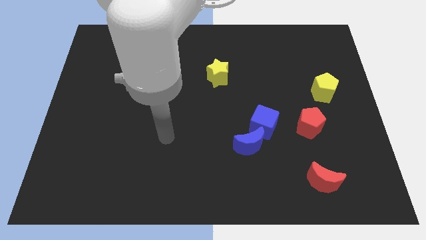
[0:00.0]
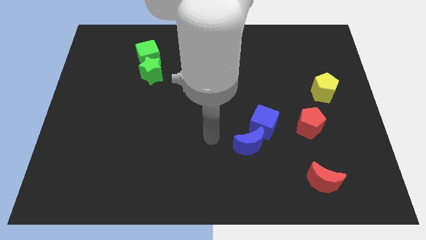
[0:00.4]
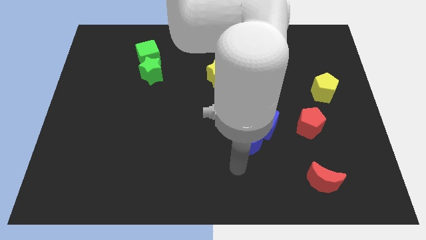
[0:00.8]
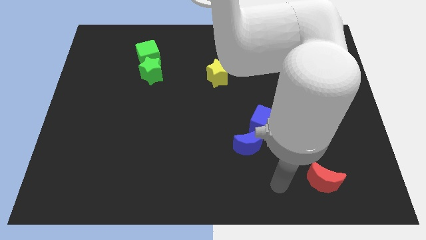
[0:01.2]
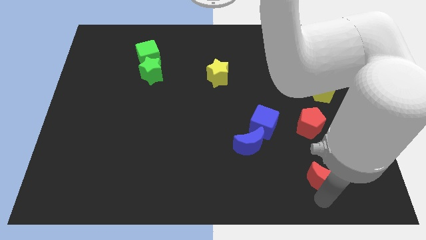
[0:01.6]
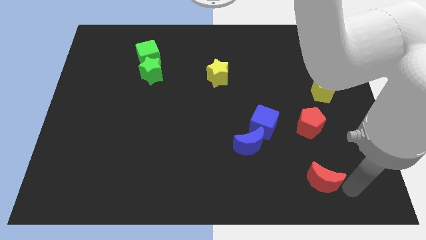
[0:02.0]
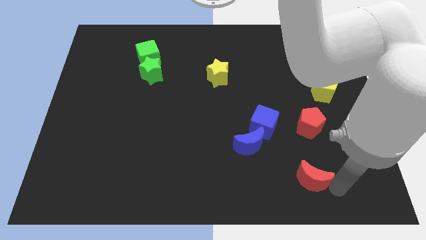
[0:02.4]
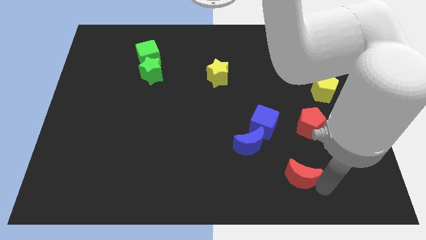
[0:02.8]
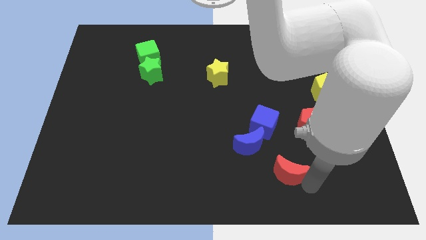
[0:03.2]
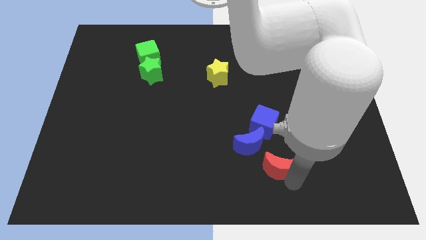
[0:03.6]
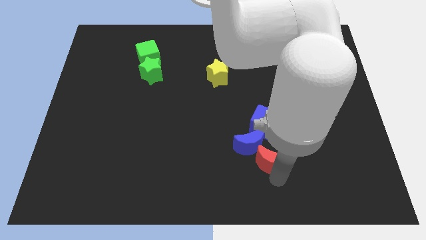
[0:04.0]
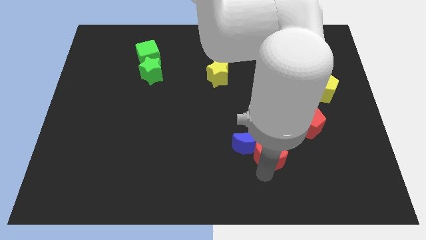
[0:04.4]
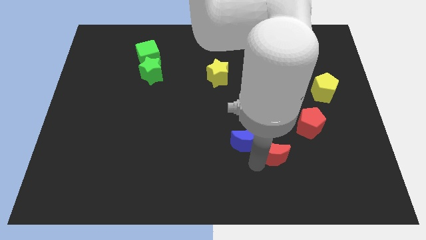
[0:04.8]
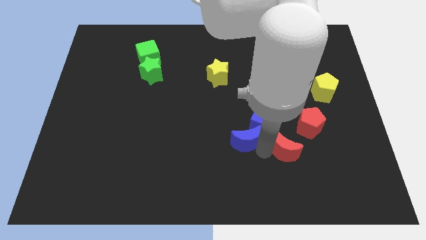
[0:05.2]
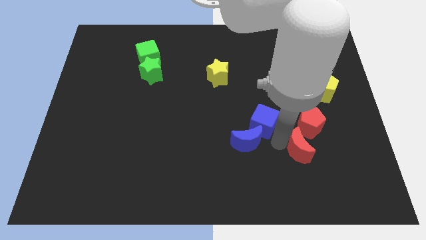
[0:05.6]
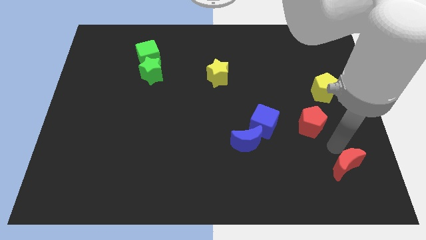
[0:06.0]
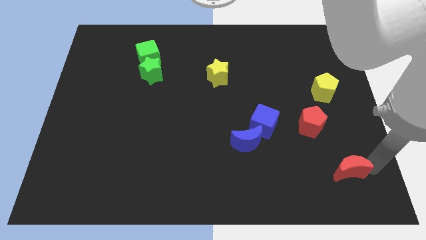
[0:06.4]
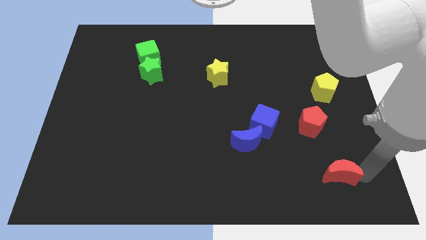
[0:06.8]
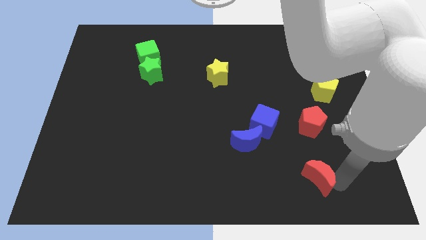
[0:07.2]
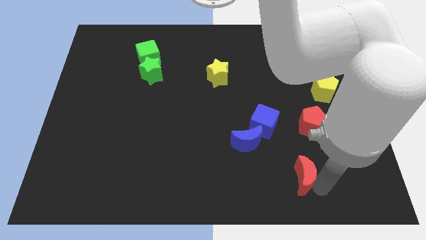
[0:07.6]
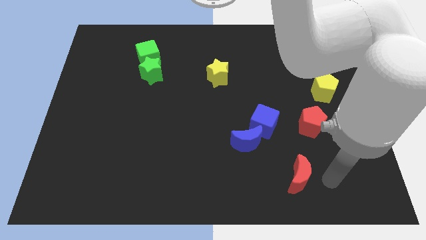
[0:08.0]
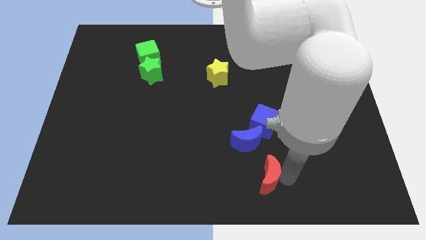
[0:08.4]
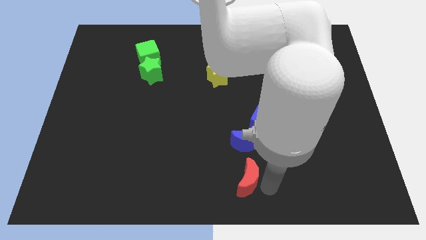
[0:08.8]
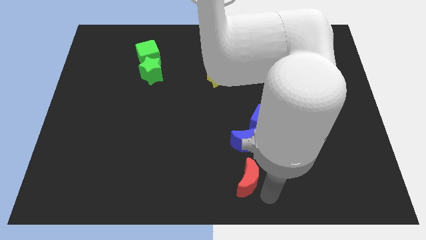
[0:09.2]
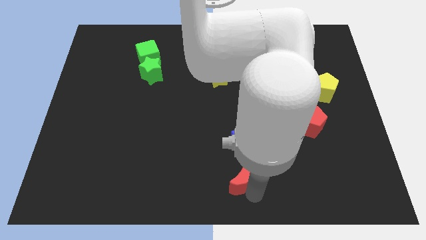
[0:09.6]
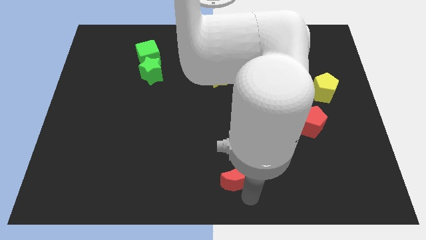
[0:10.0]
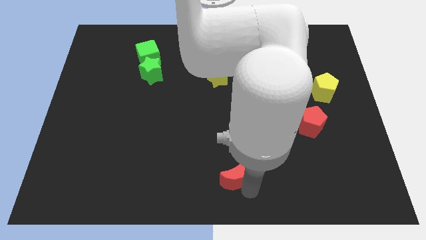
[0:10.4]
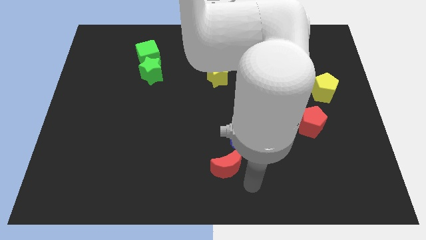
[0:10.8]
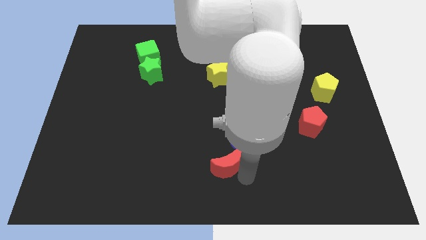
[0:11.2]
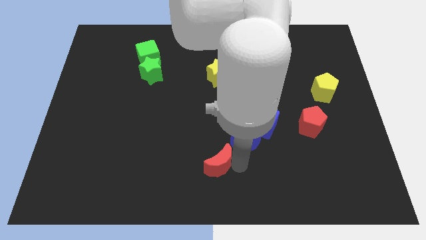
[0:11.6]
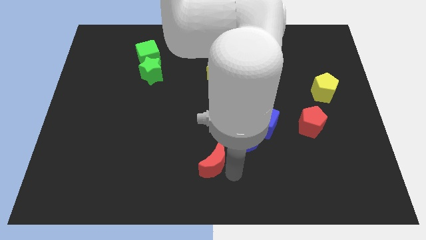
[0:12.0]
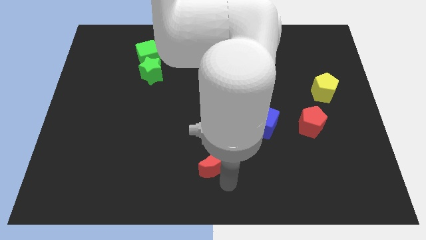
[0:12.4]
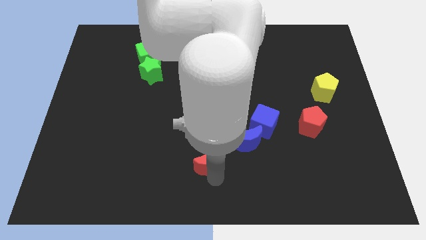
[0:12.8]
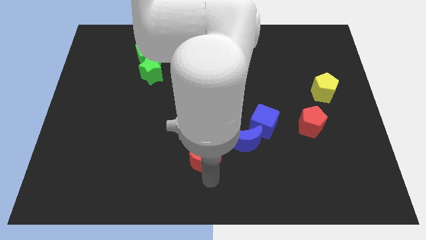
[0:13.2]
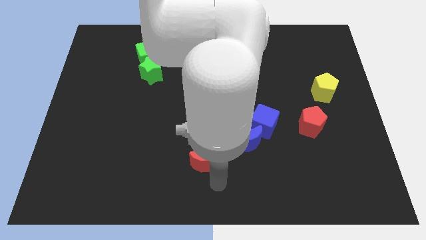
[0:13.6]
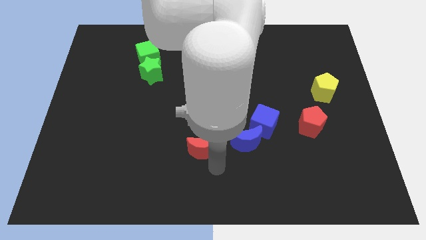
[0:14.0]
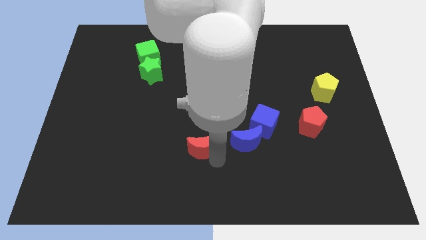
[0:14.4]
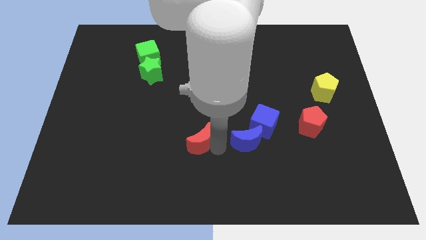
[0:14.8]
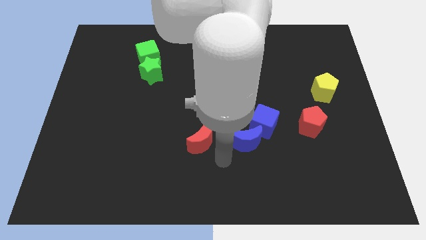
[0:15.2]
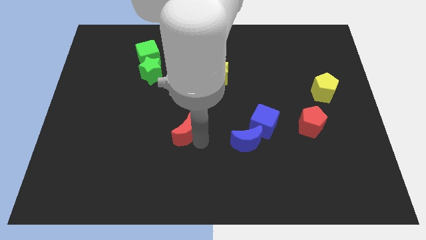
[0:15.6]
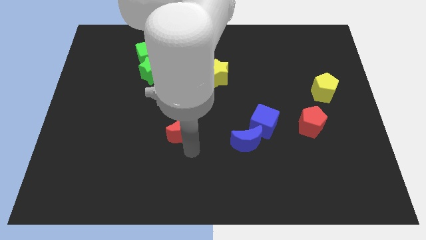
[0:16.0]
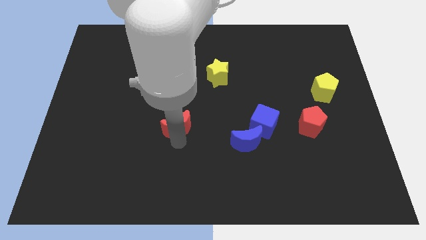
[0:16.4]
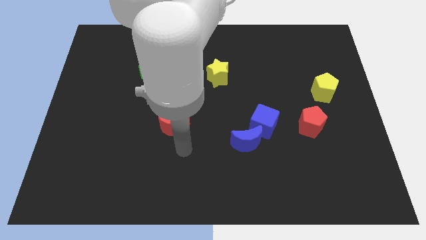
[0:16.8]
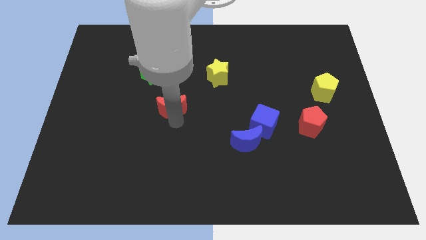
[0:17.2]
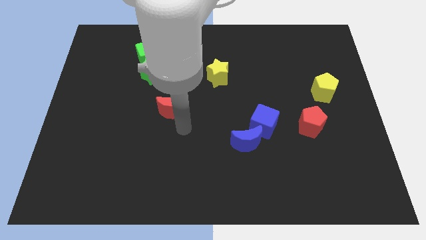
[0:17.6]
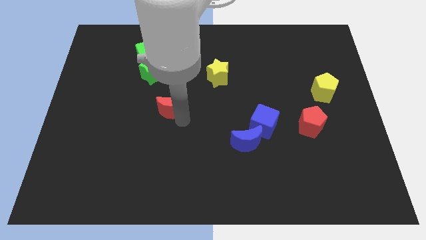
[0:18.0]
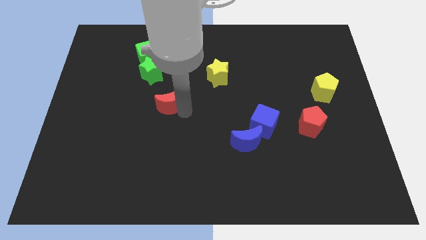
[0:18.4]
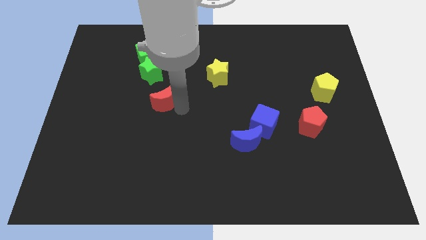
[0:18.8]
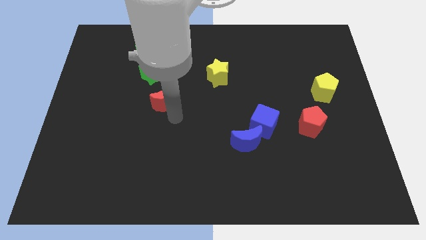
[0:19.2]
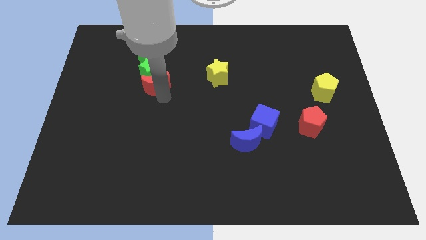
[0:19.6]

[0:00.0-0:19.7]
push the red moon next to the green star
